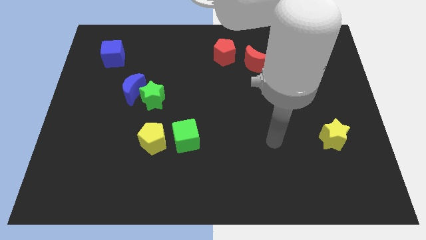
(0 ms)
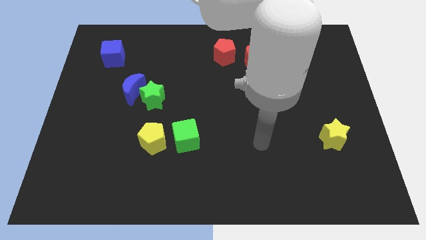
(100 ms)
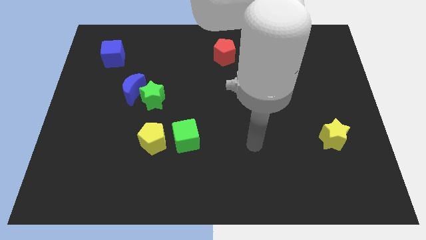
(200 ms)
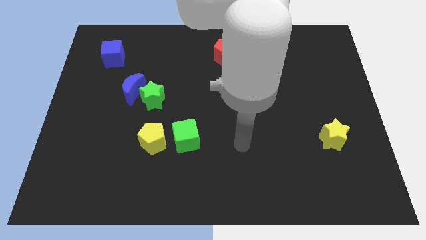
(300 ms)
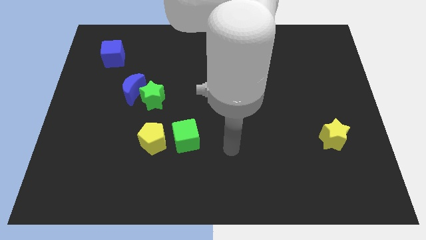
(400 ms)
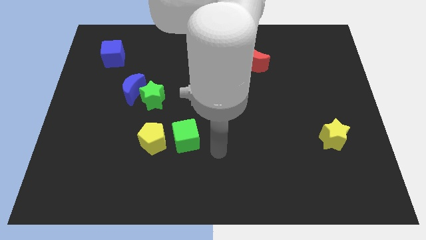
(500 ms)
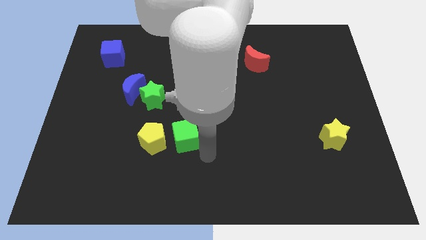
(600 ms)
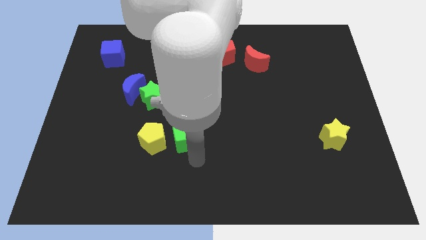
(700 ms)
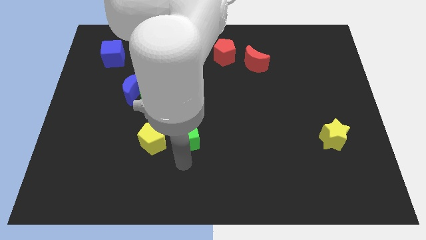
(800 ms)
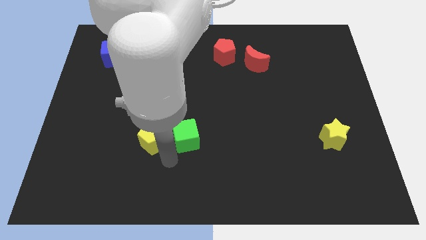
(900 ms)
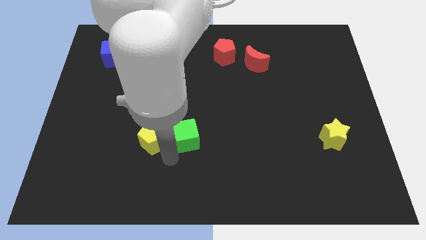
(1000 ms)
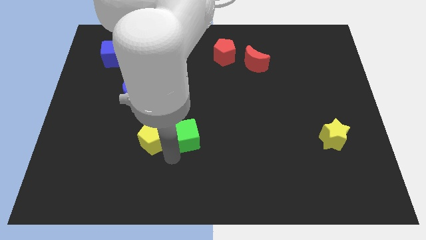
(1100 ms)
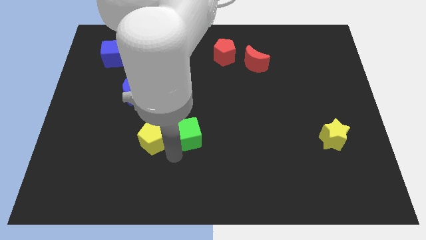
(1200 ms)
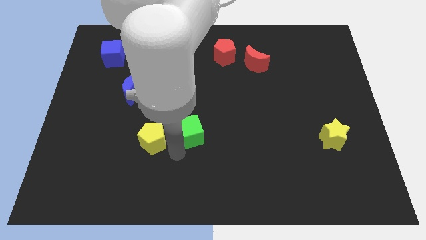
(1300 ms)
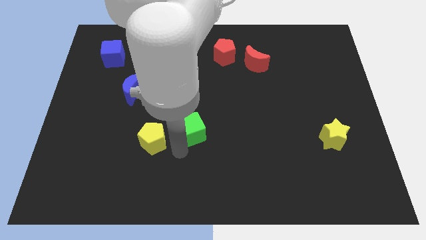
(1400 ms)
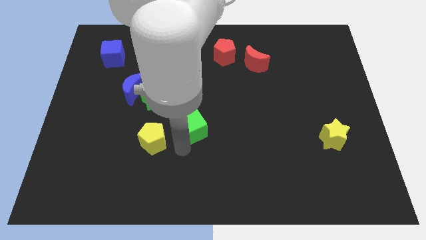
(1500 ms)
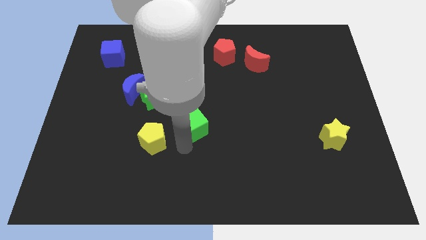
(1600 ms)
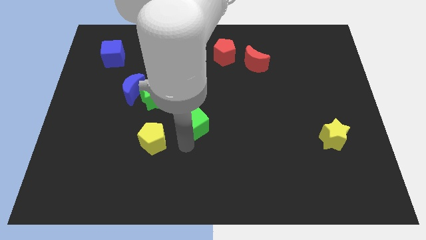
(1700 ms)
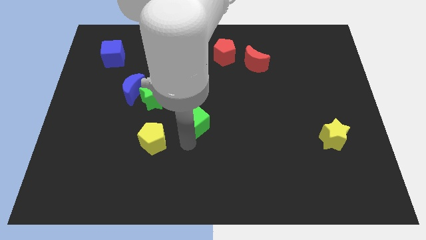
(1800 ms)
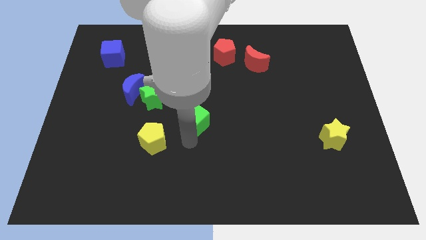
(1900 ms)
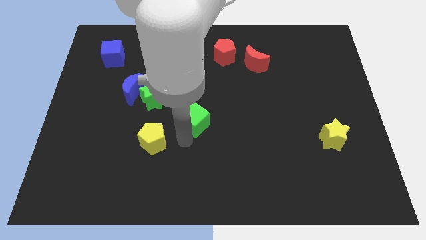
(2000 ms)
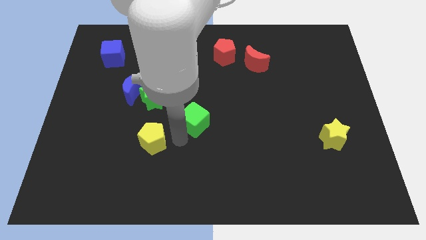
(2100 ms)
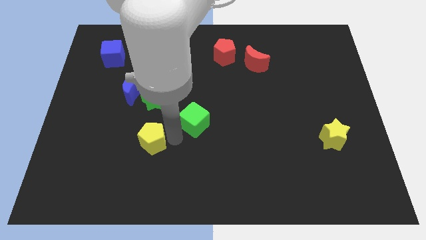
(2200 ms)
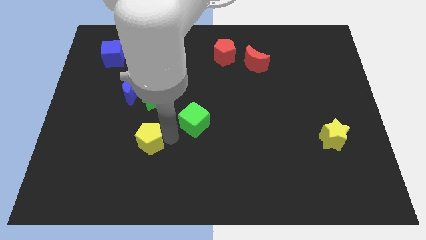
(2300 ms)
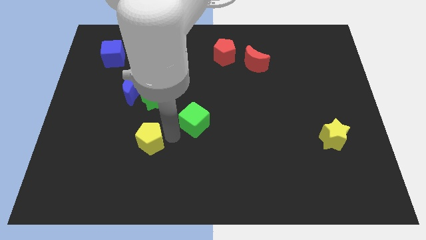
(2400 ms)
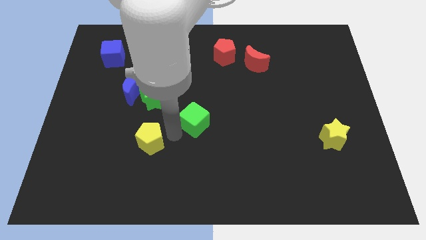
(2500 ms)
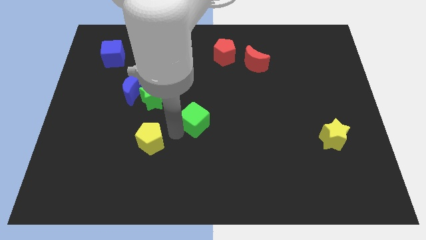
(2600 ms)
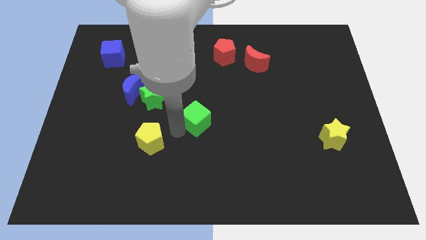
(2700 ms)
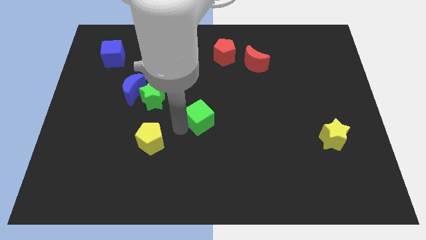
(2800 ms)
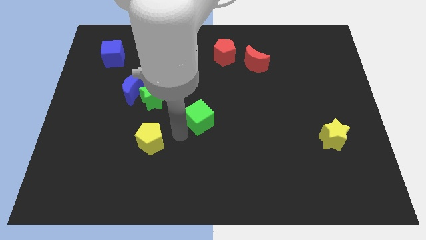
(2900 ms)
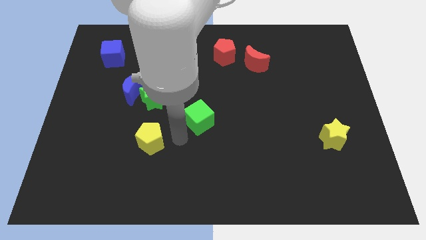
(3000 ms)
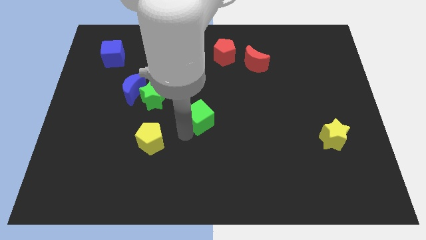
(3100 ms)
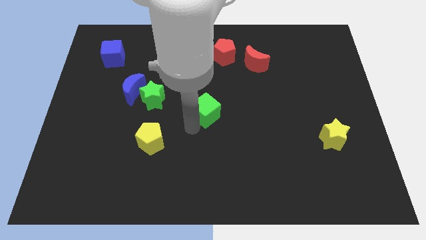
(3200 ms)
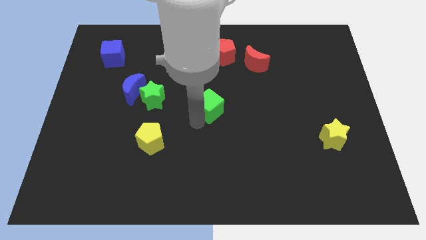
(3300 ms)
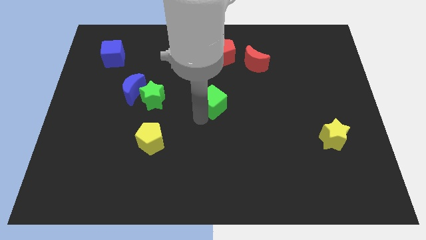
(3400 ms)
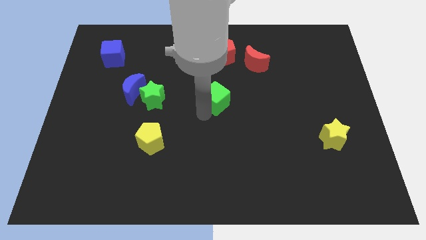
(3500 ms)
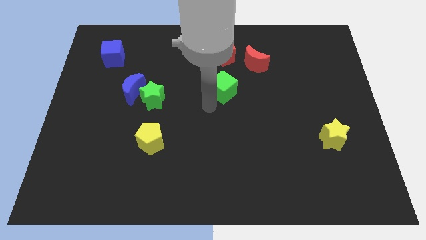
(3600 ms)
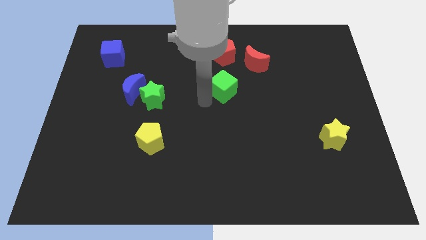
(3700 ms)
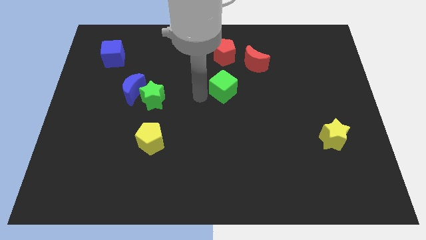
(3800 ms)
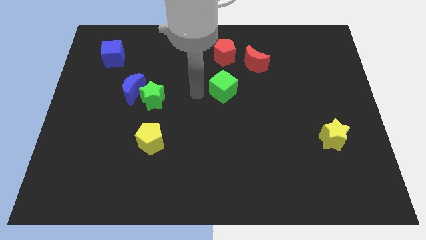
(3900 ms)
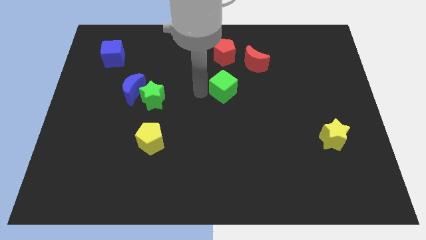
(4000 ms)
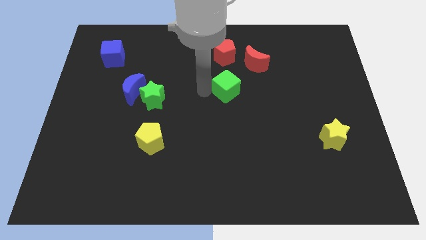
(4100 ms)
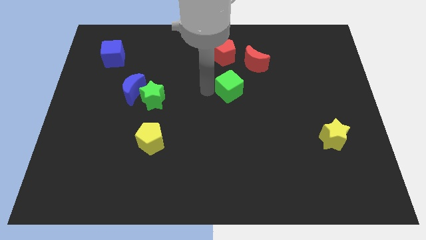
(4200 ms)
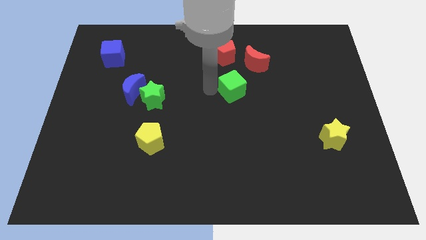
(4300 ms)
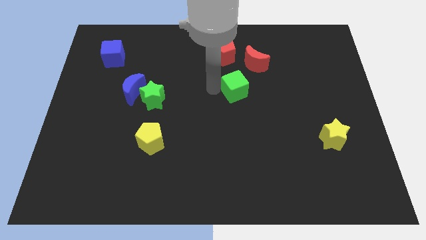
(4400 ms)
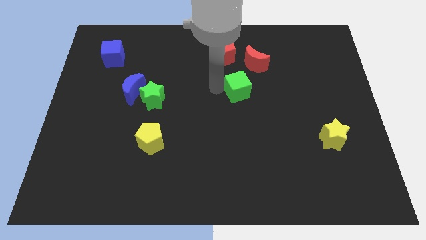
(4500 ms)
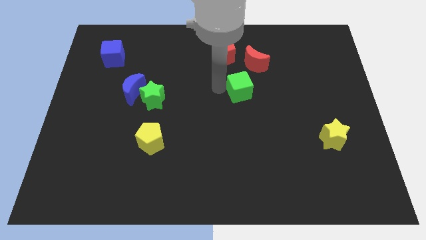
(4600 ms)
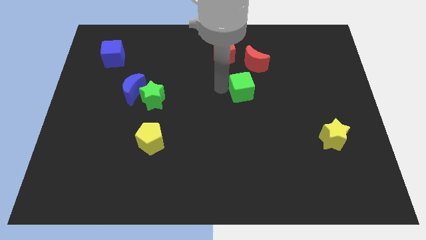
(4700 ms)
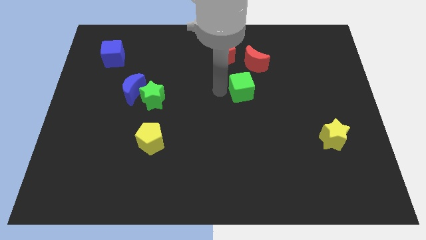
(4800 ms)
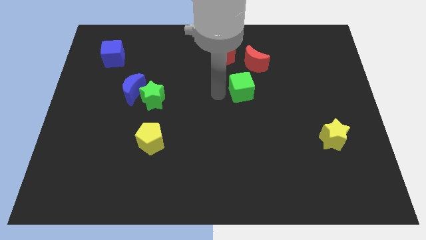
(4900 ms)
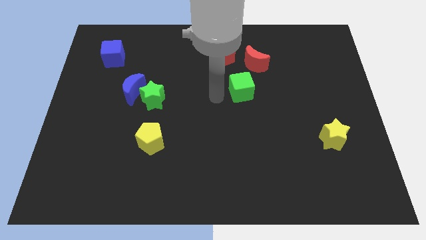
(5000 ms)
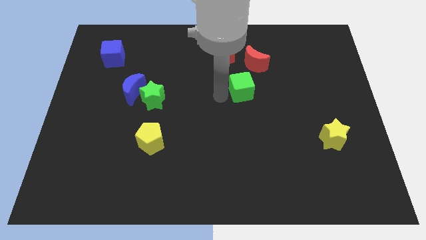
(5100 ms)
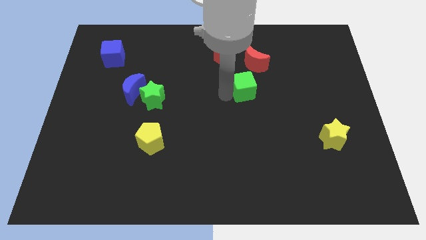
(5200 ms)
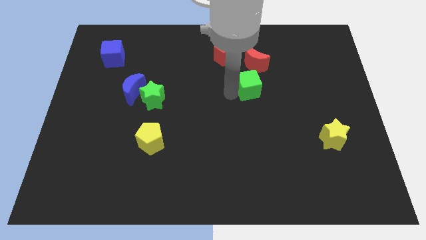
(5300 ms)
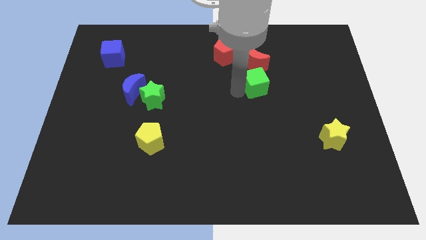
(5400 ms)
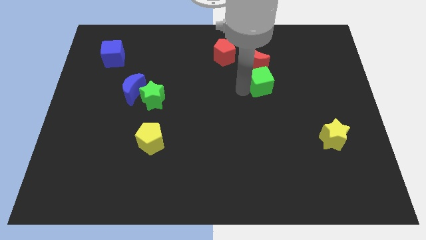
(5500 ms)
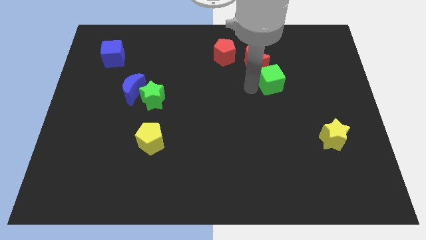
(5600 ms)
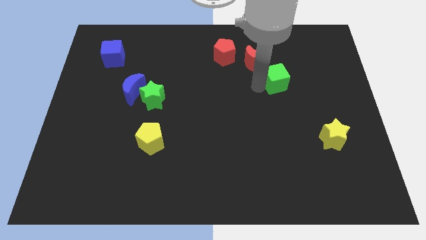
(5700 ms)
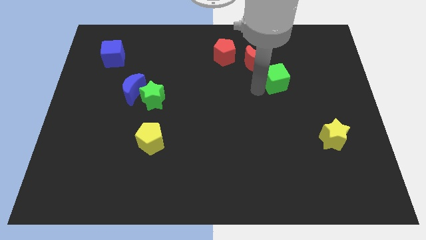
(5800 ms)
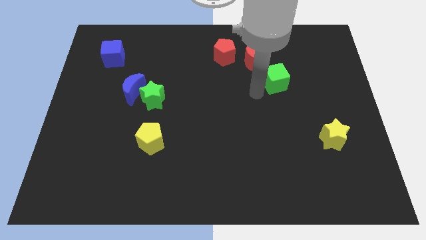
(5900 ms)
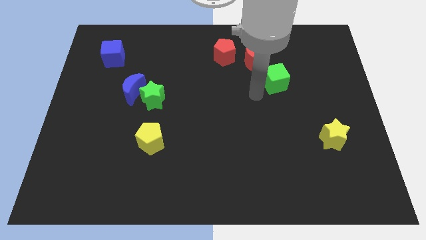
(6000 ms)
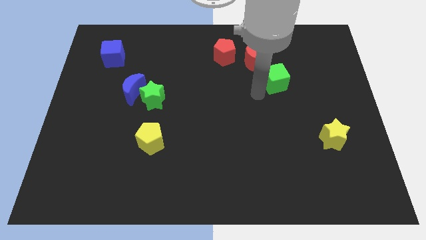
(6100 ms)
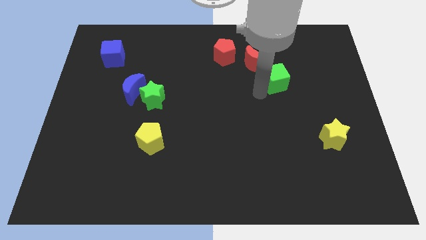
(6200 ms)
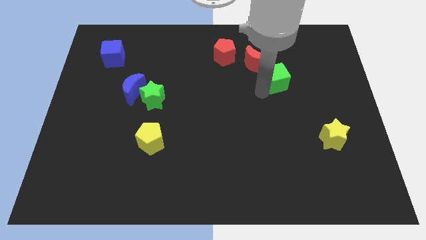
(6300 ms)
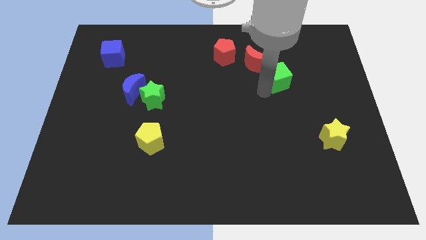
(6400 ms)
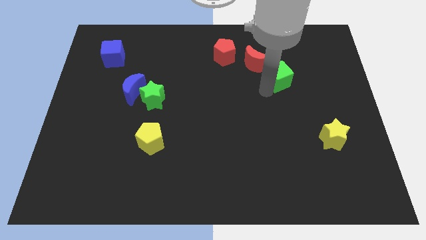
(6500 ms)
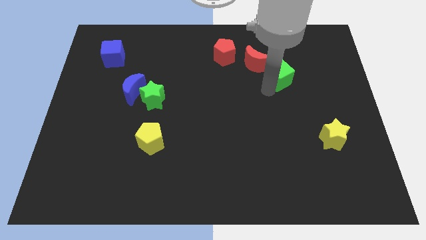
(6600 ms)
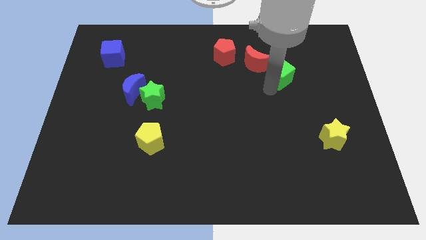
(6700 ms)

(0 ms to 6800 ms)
put the green cube to the right of the red moon
